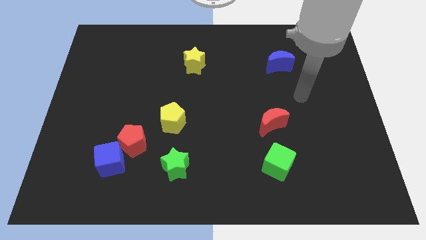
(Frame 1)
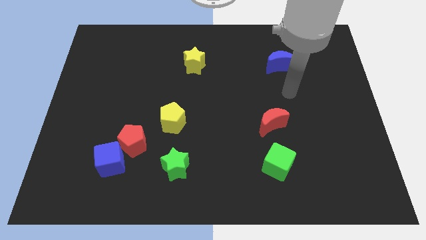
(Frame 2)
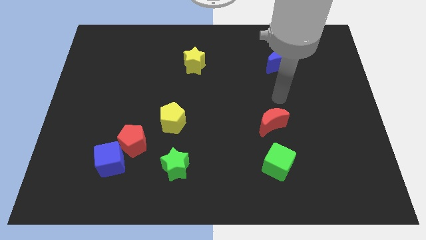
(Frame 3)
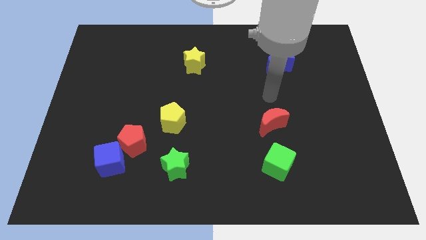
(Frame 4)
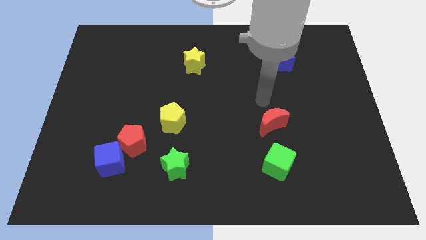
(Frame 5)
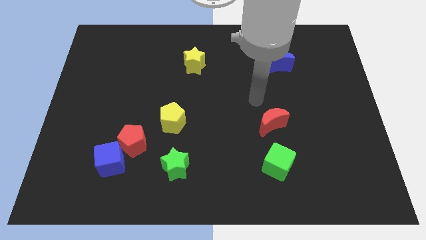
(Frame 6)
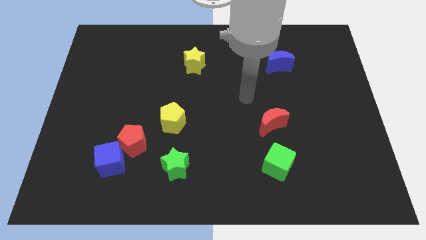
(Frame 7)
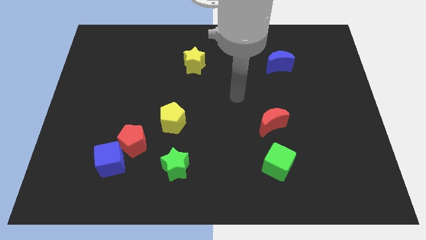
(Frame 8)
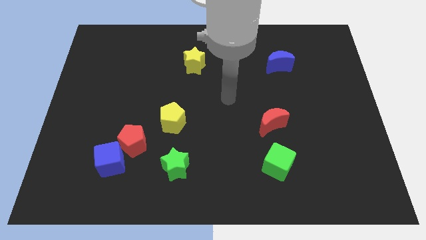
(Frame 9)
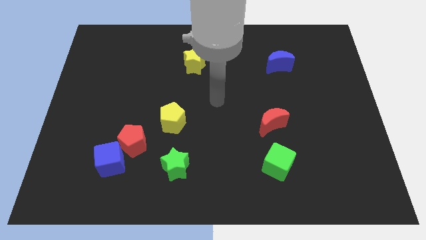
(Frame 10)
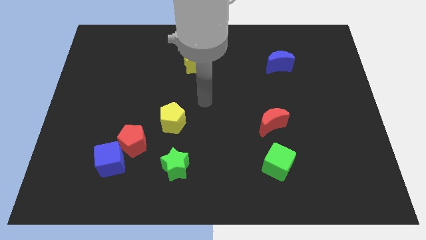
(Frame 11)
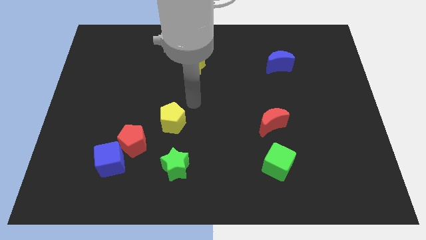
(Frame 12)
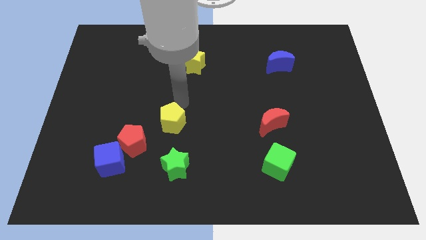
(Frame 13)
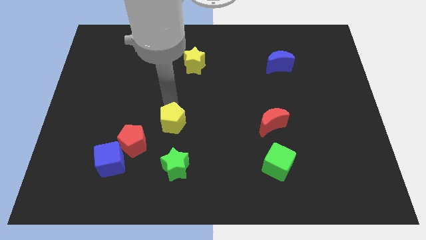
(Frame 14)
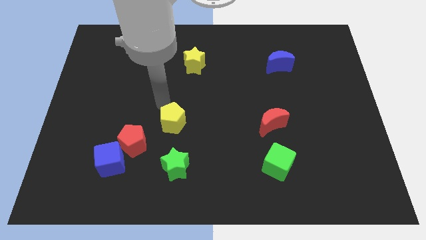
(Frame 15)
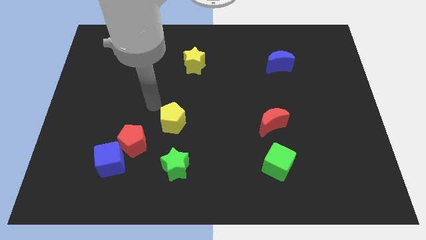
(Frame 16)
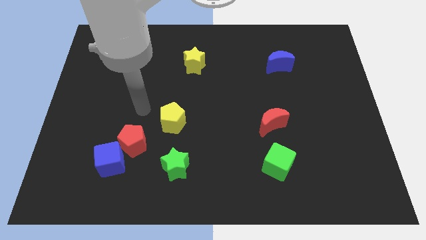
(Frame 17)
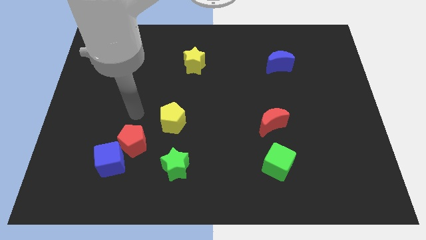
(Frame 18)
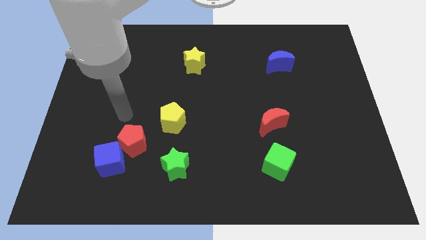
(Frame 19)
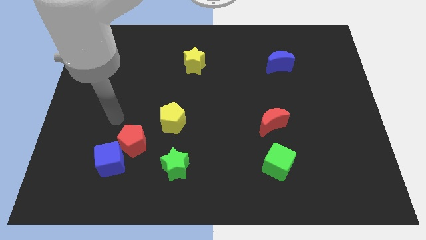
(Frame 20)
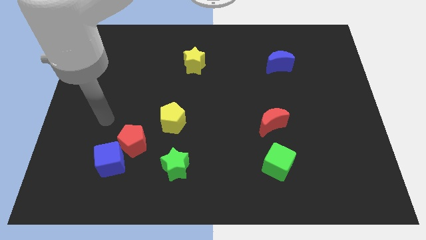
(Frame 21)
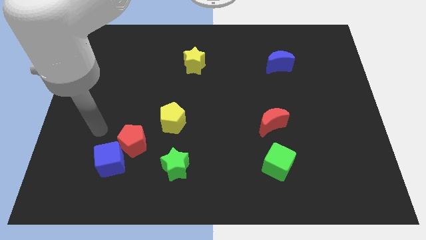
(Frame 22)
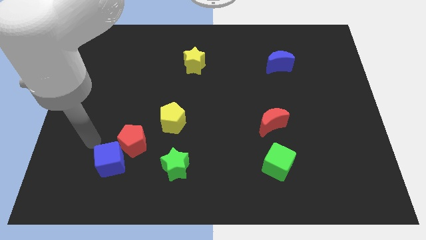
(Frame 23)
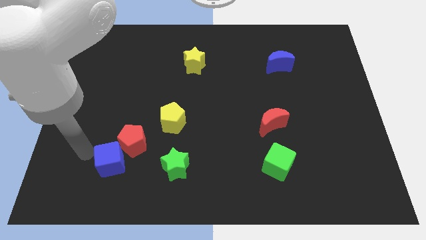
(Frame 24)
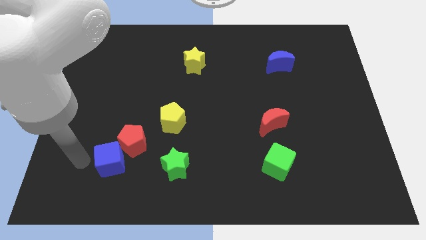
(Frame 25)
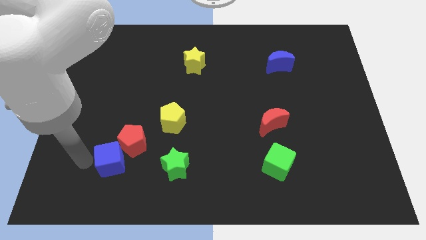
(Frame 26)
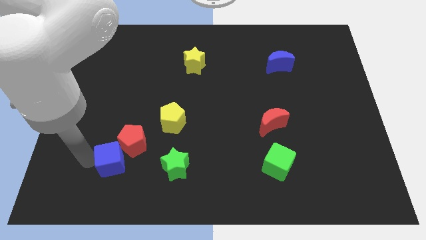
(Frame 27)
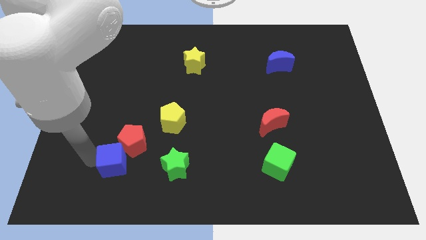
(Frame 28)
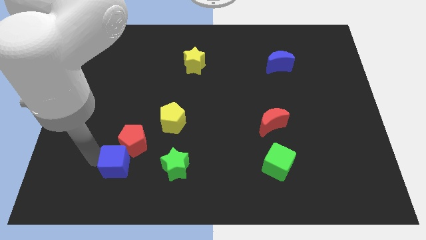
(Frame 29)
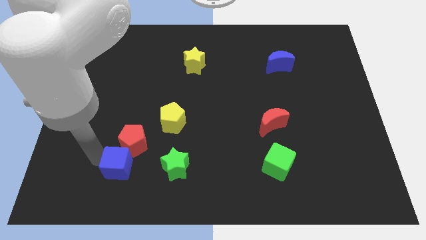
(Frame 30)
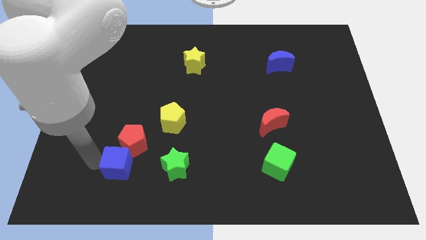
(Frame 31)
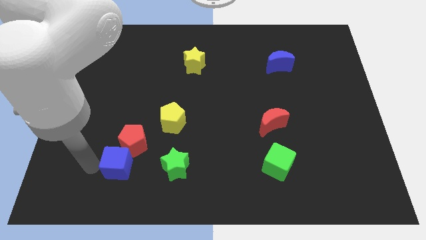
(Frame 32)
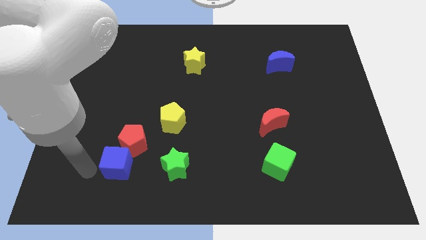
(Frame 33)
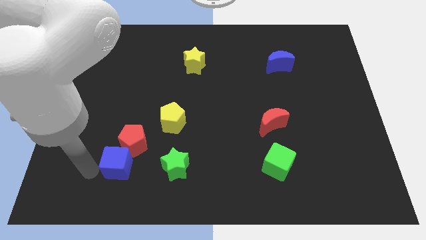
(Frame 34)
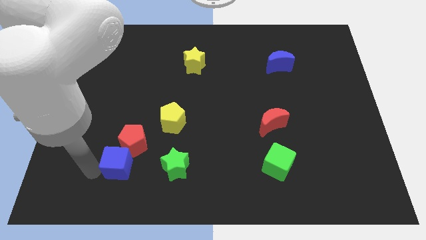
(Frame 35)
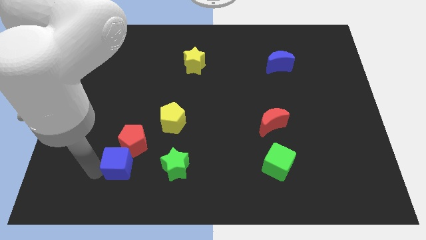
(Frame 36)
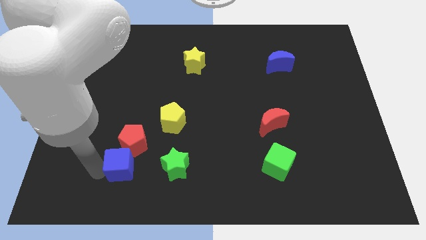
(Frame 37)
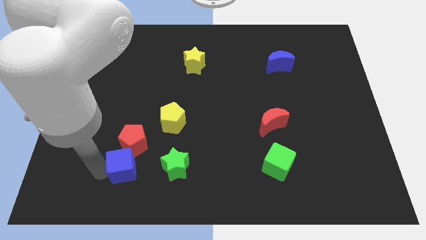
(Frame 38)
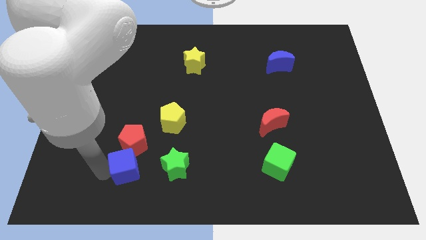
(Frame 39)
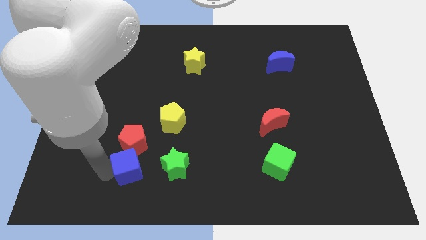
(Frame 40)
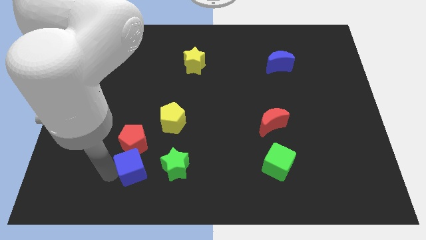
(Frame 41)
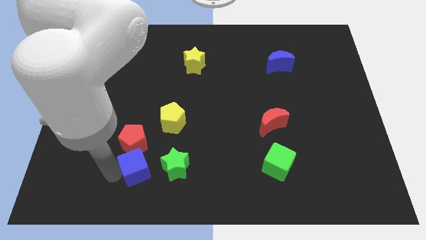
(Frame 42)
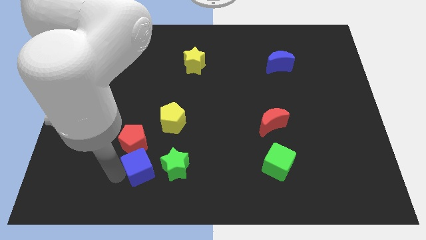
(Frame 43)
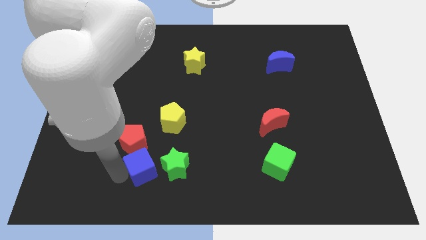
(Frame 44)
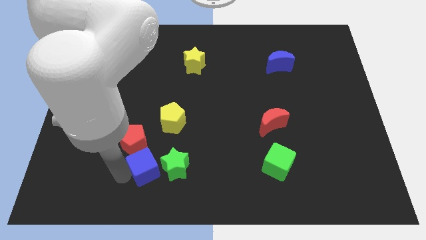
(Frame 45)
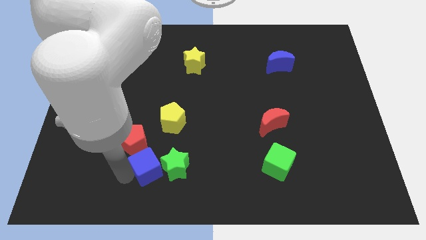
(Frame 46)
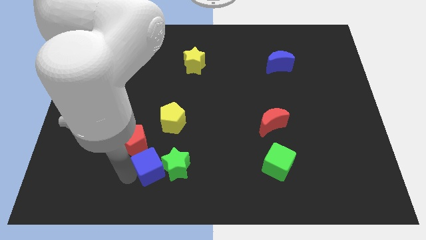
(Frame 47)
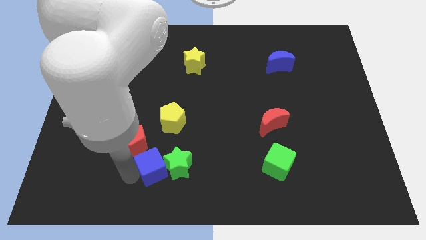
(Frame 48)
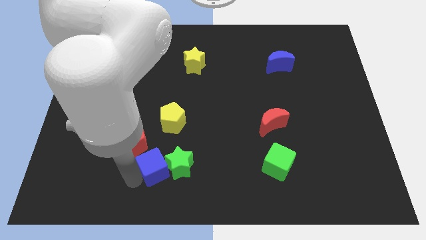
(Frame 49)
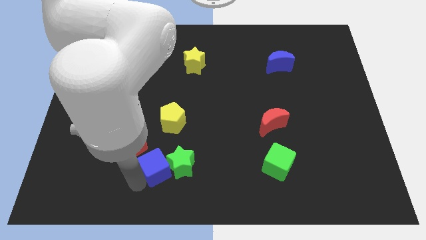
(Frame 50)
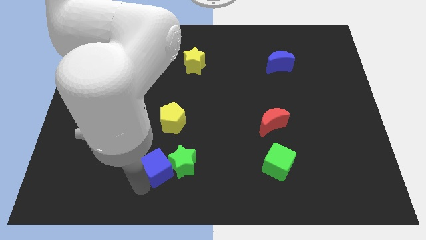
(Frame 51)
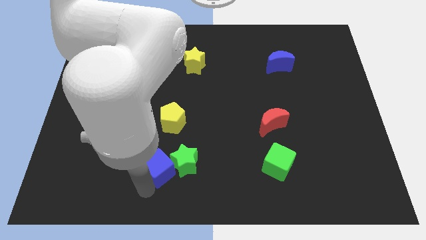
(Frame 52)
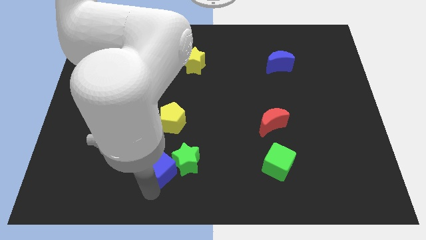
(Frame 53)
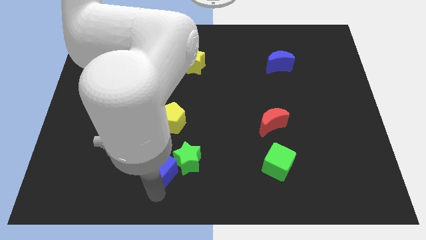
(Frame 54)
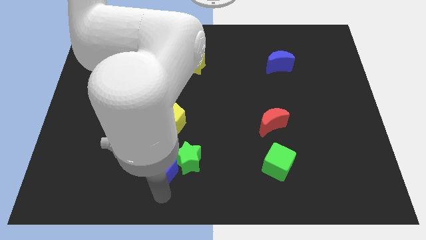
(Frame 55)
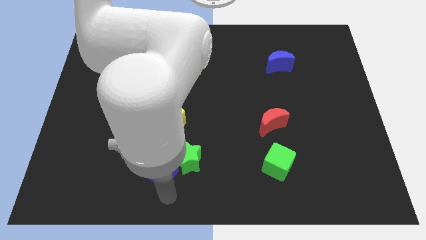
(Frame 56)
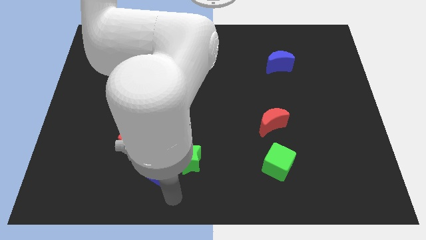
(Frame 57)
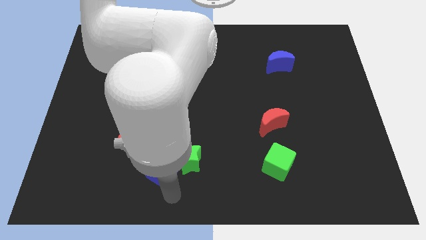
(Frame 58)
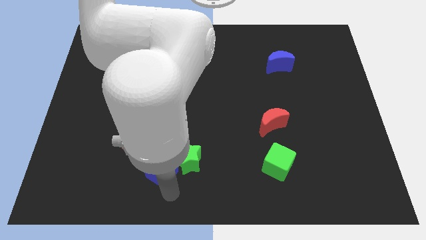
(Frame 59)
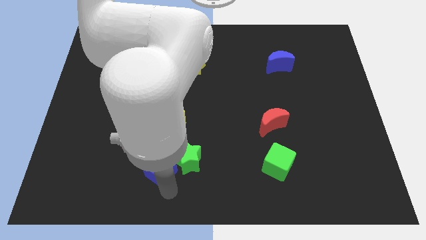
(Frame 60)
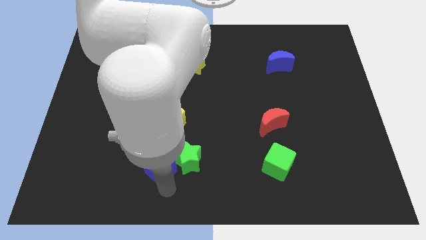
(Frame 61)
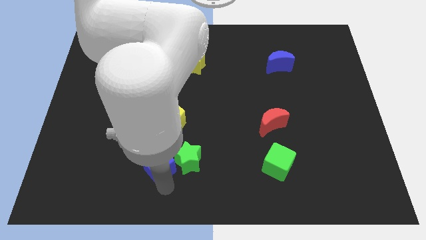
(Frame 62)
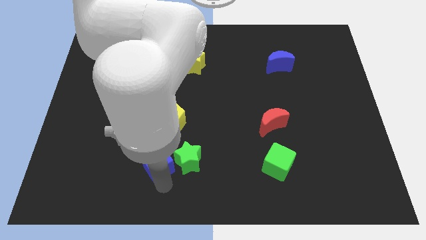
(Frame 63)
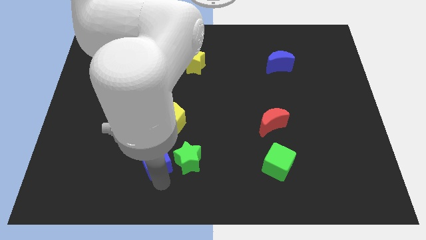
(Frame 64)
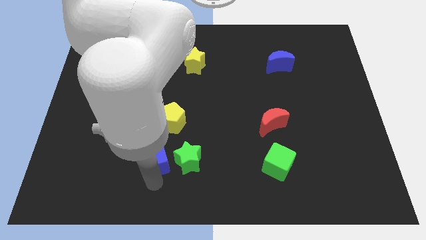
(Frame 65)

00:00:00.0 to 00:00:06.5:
put the blue cube to the right side of the red pentagon

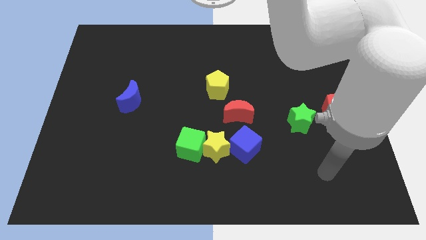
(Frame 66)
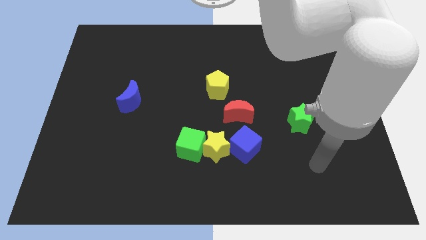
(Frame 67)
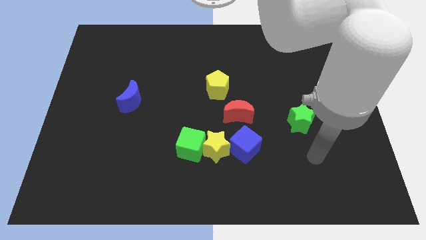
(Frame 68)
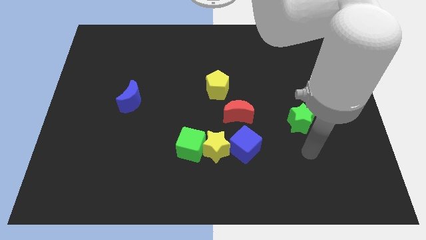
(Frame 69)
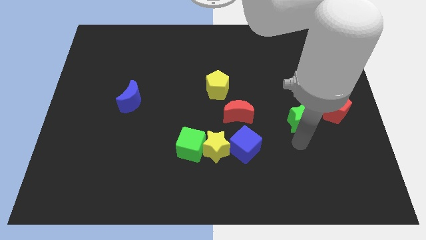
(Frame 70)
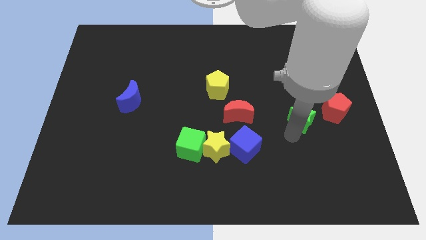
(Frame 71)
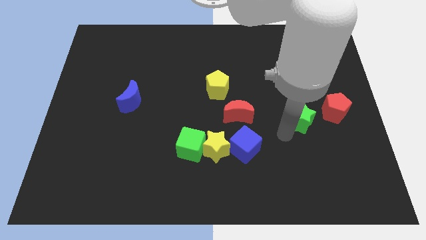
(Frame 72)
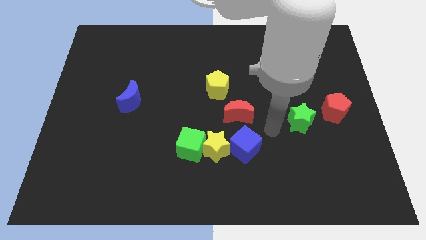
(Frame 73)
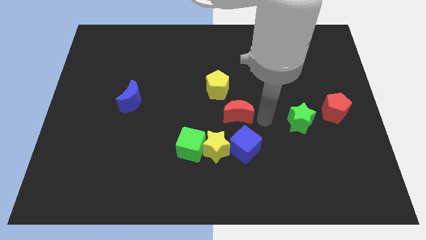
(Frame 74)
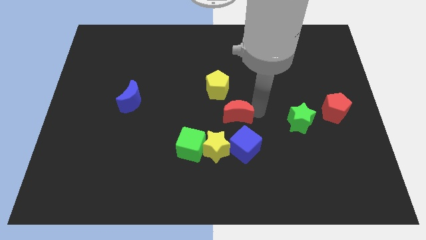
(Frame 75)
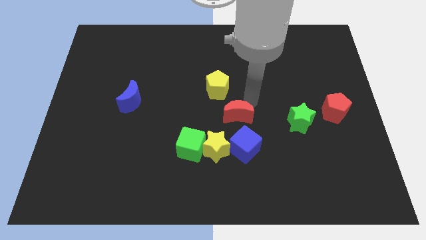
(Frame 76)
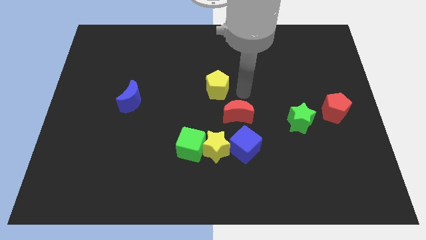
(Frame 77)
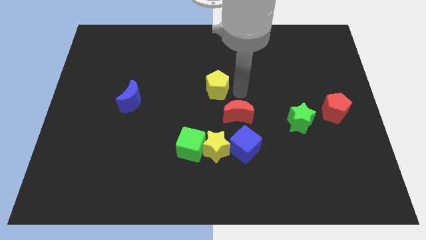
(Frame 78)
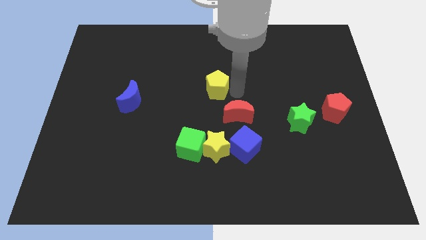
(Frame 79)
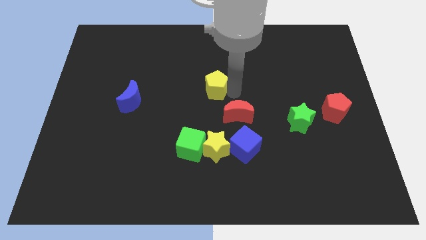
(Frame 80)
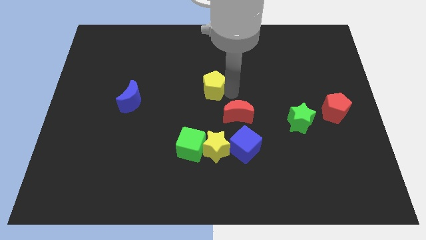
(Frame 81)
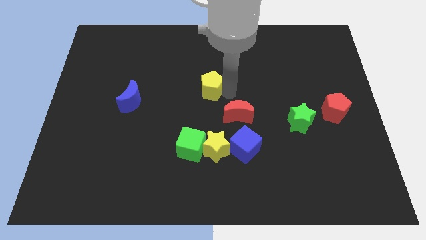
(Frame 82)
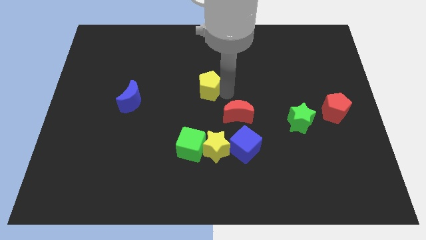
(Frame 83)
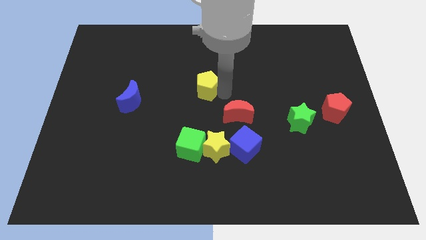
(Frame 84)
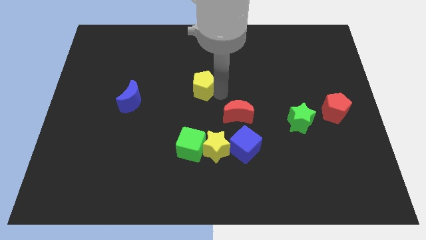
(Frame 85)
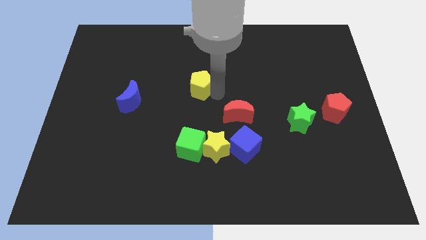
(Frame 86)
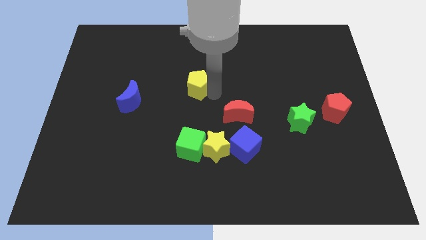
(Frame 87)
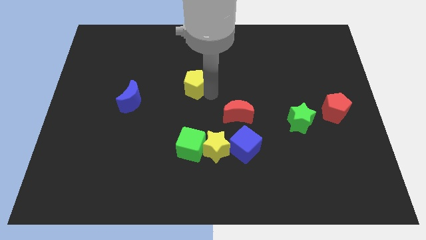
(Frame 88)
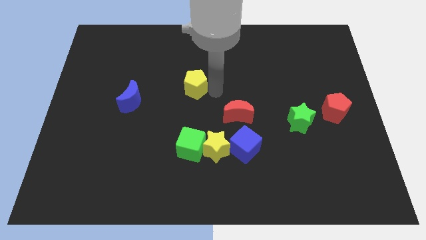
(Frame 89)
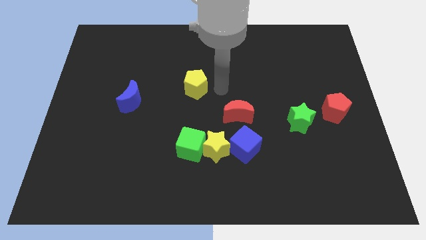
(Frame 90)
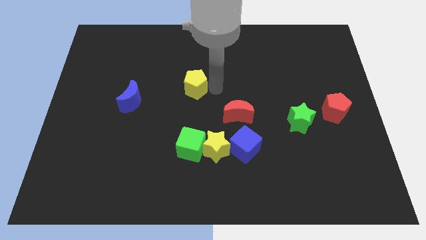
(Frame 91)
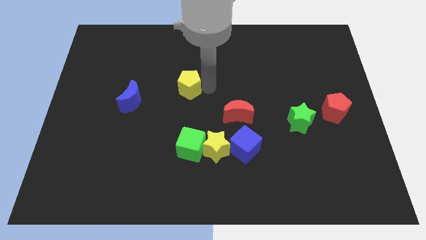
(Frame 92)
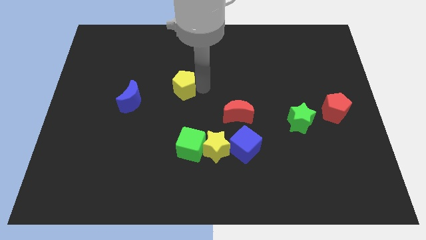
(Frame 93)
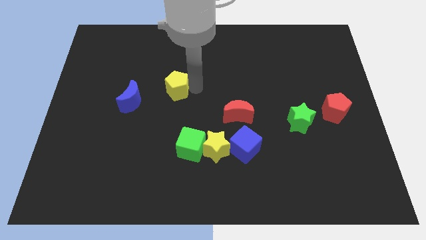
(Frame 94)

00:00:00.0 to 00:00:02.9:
push the yellow pentagon diagonally up and to the right of the blue moon
